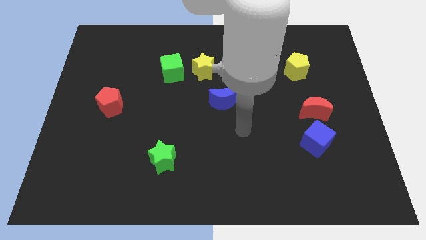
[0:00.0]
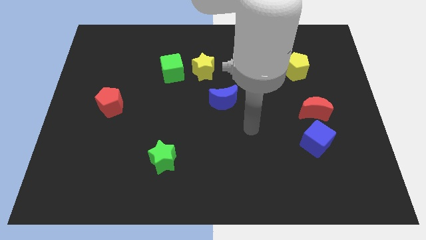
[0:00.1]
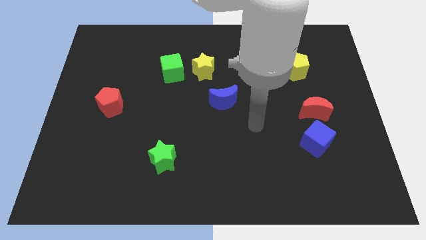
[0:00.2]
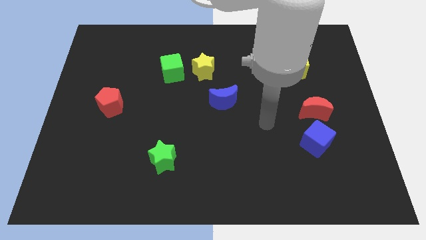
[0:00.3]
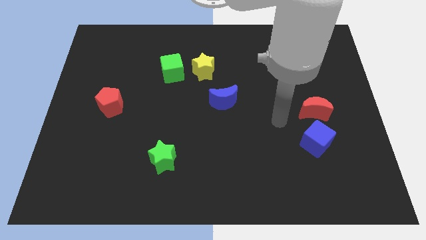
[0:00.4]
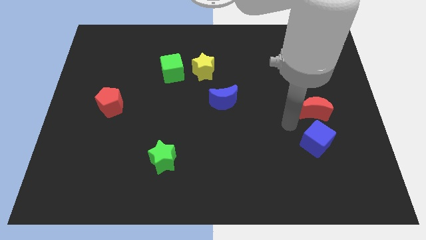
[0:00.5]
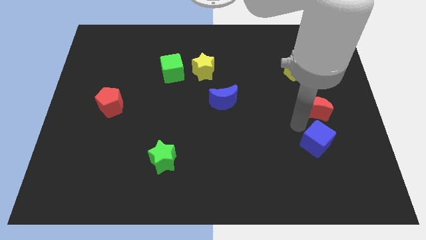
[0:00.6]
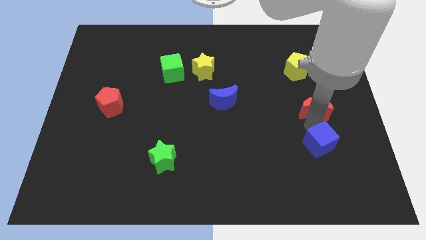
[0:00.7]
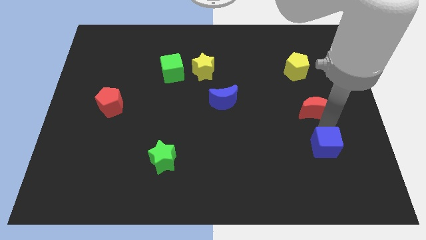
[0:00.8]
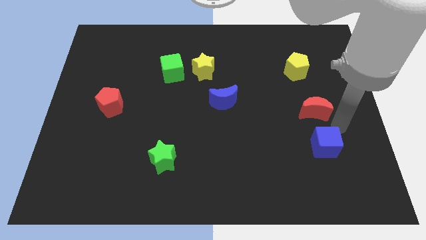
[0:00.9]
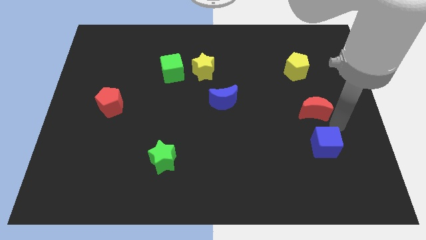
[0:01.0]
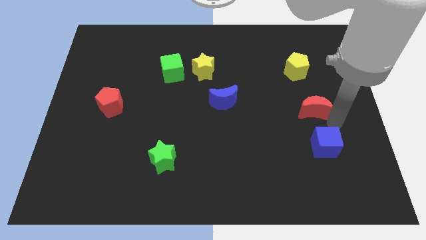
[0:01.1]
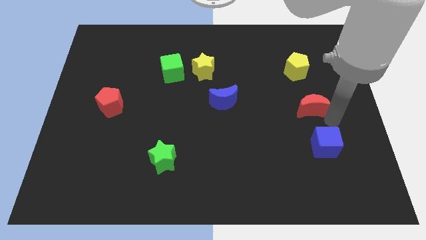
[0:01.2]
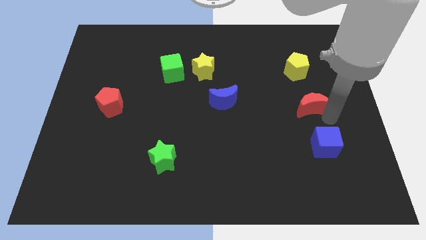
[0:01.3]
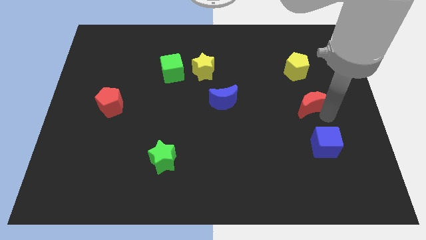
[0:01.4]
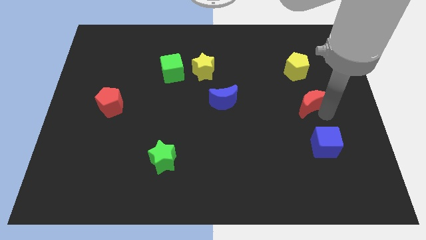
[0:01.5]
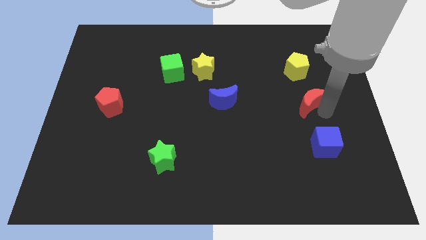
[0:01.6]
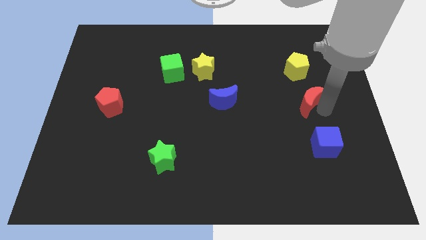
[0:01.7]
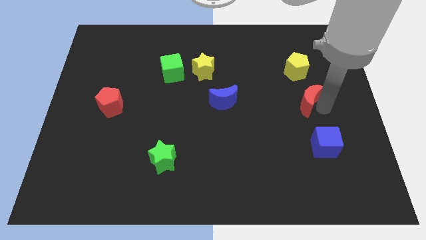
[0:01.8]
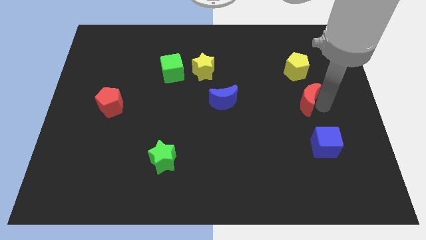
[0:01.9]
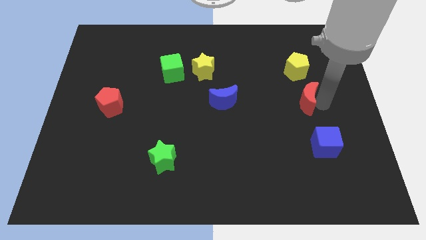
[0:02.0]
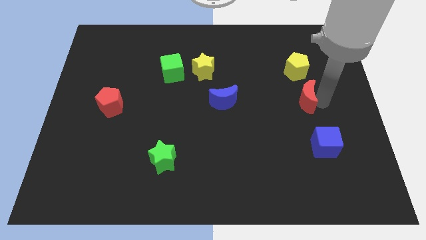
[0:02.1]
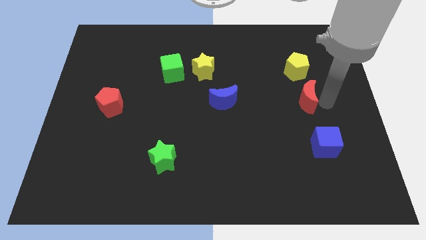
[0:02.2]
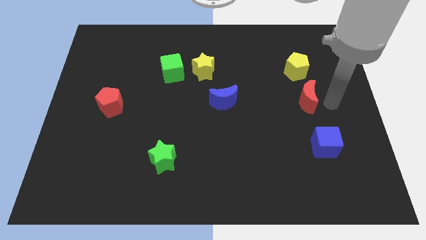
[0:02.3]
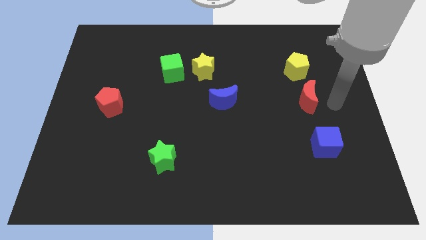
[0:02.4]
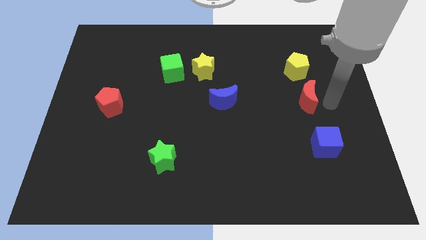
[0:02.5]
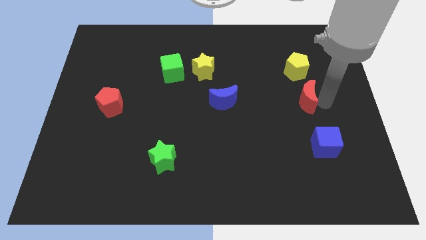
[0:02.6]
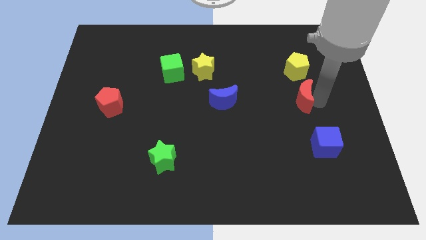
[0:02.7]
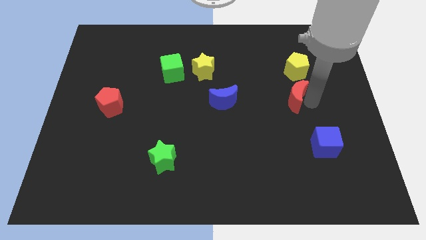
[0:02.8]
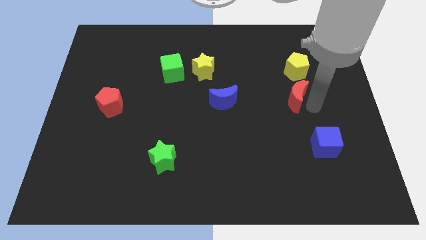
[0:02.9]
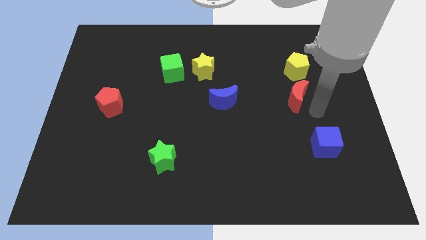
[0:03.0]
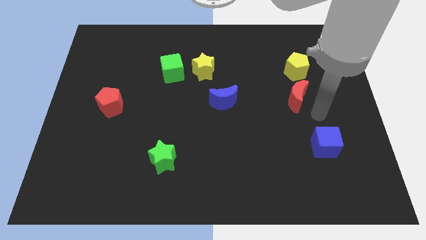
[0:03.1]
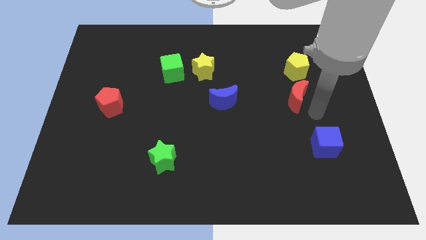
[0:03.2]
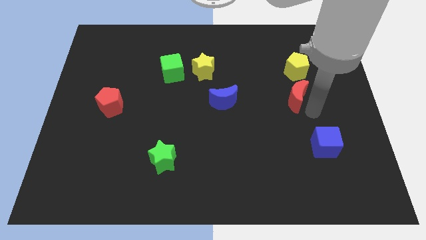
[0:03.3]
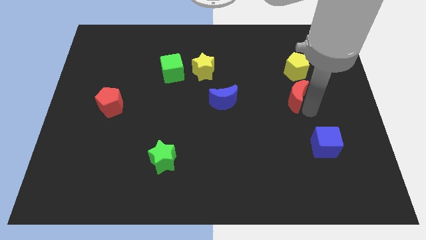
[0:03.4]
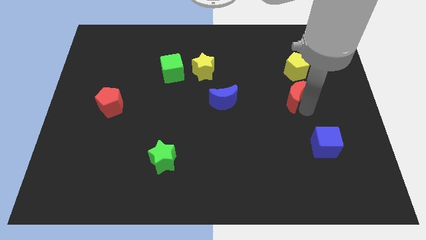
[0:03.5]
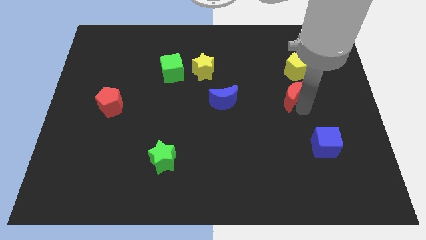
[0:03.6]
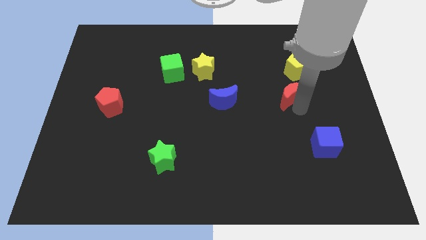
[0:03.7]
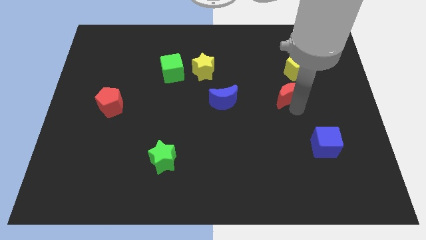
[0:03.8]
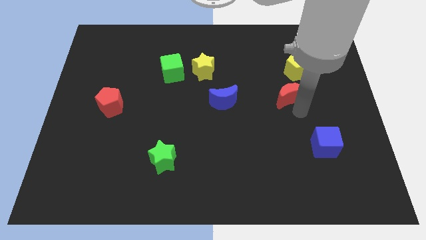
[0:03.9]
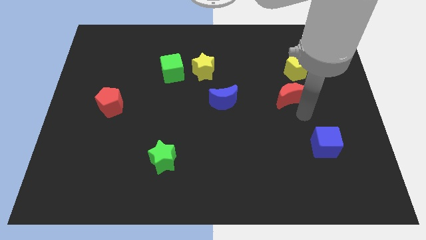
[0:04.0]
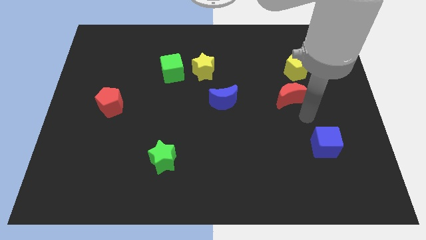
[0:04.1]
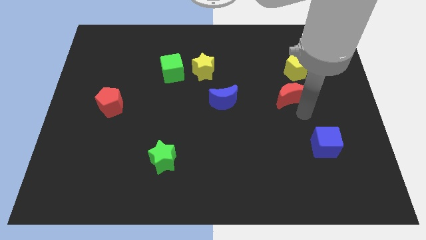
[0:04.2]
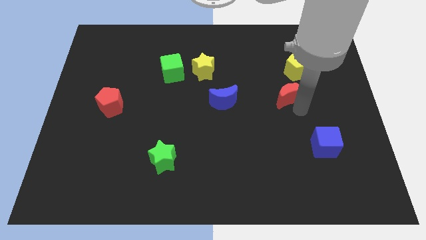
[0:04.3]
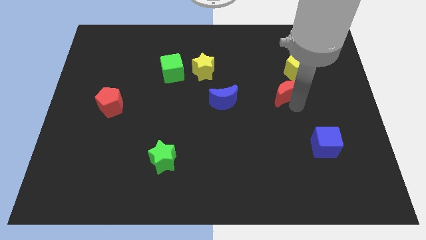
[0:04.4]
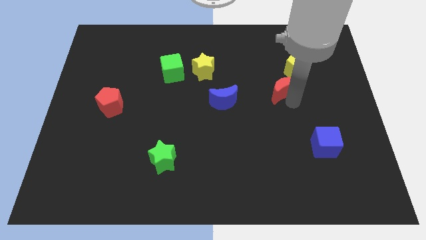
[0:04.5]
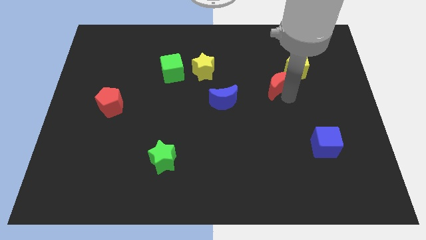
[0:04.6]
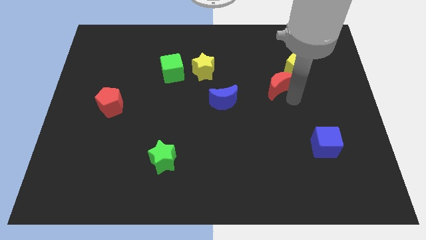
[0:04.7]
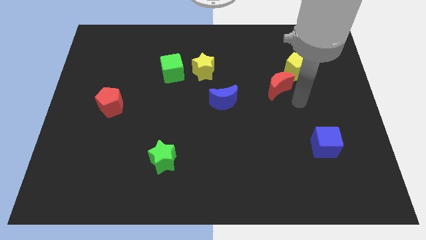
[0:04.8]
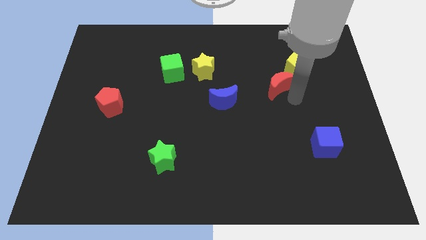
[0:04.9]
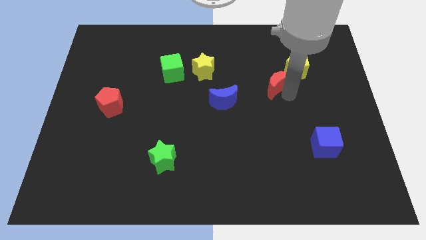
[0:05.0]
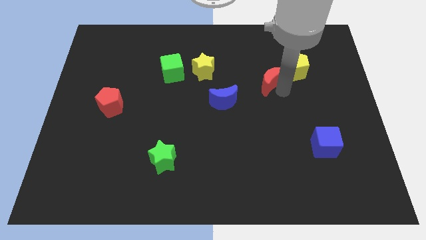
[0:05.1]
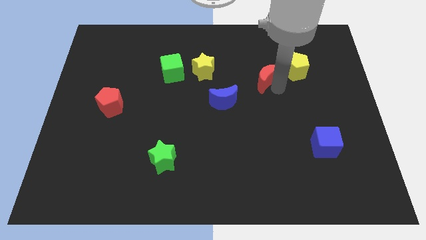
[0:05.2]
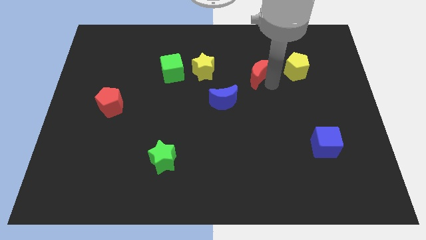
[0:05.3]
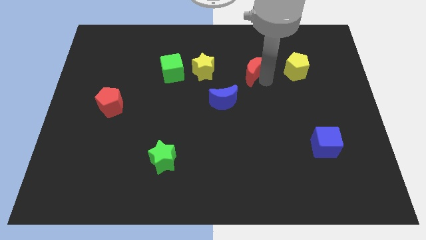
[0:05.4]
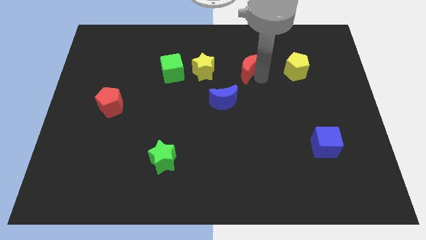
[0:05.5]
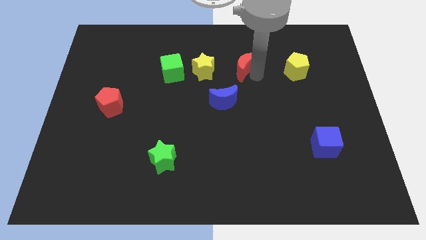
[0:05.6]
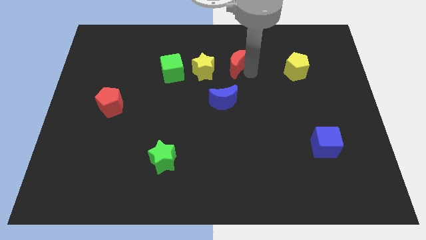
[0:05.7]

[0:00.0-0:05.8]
push the red moon to the top right of the yellow star

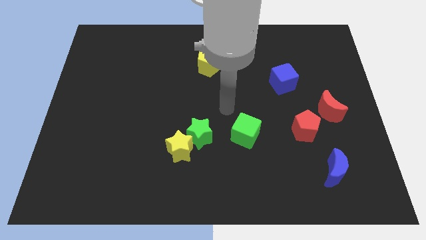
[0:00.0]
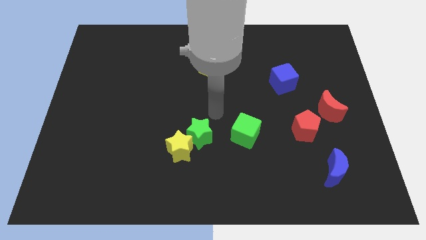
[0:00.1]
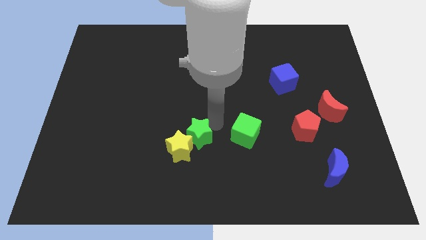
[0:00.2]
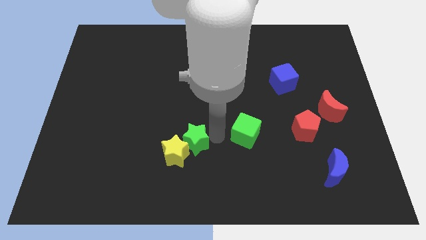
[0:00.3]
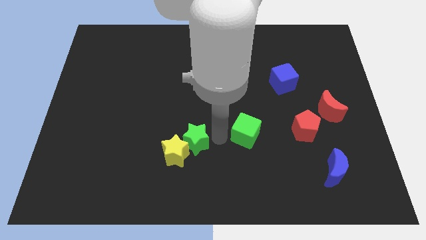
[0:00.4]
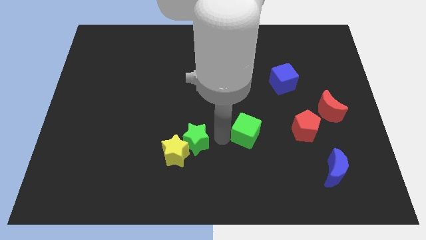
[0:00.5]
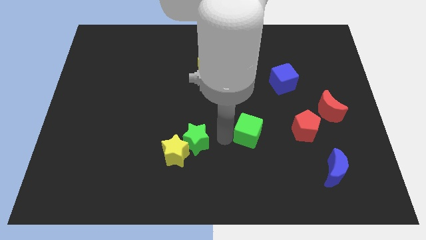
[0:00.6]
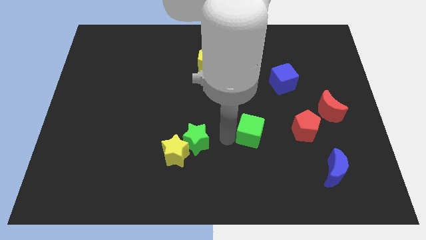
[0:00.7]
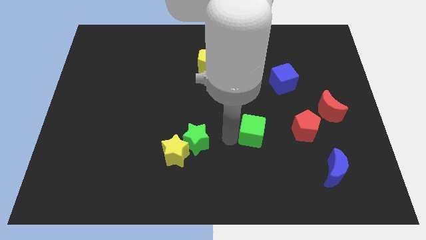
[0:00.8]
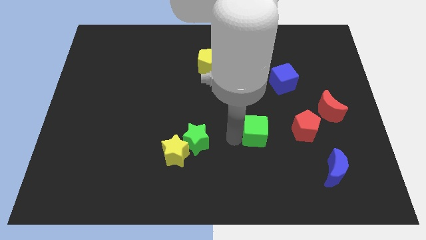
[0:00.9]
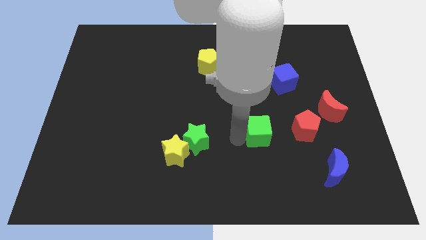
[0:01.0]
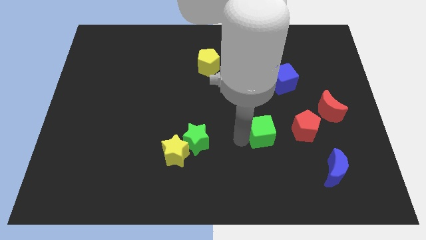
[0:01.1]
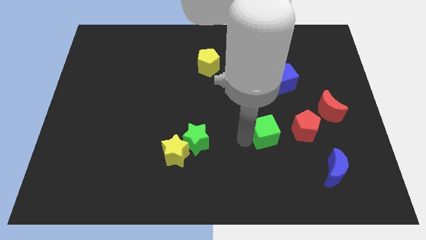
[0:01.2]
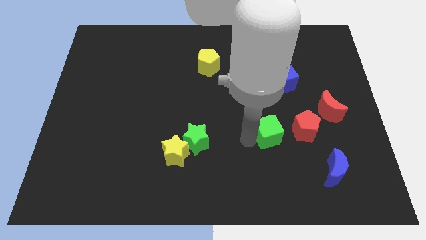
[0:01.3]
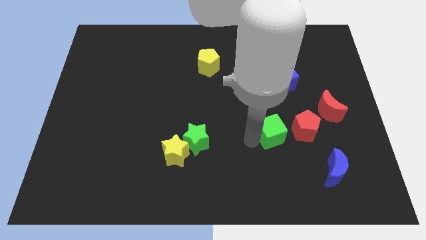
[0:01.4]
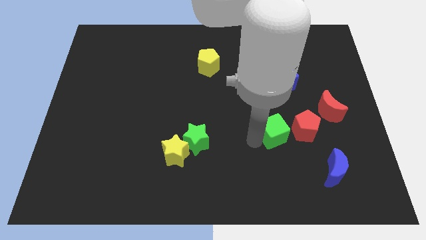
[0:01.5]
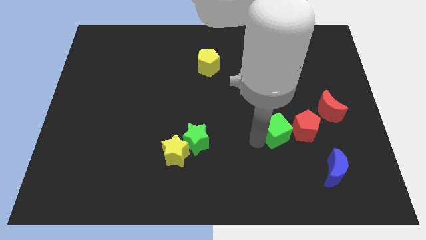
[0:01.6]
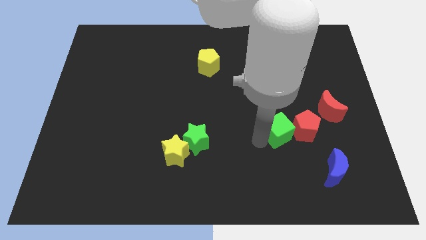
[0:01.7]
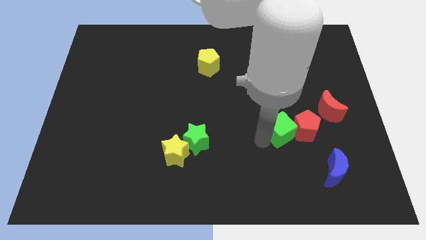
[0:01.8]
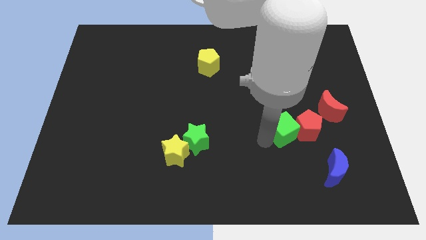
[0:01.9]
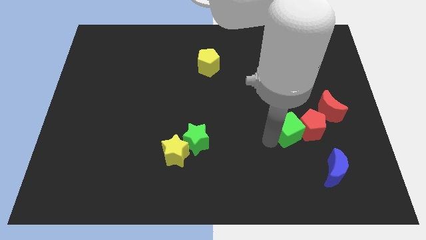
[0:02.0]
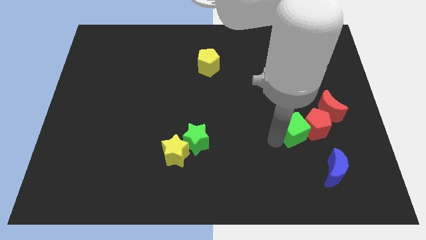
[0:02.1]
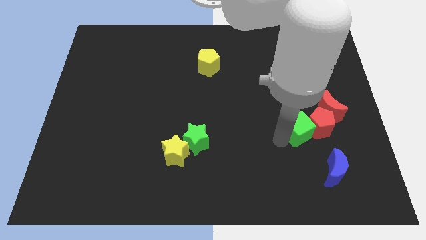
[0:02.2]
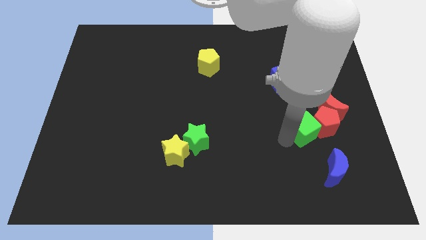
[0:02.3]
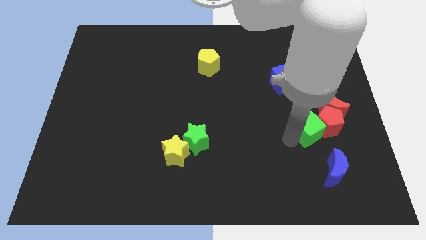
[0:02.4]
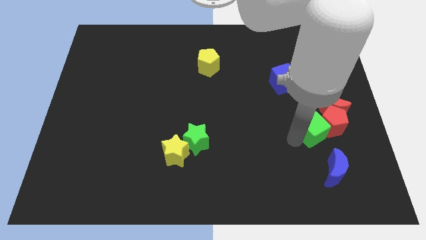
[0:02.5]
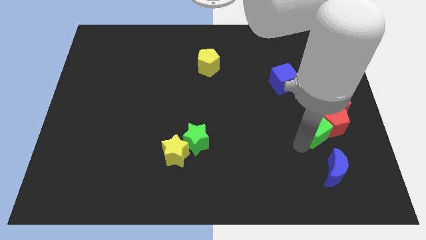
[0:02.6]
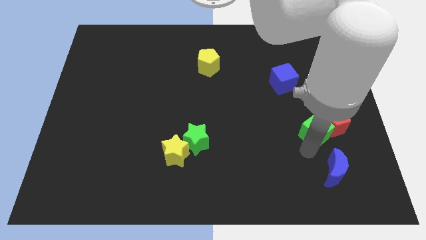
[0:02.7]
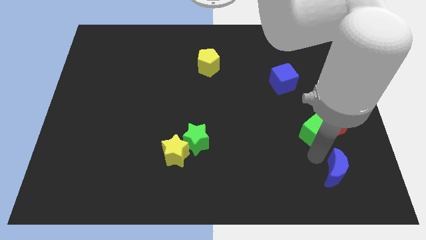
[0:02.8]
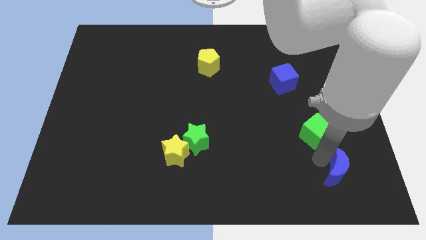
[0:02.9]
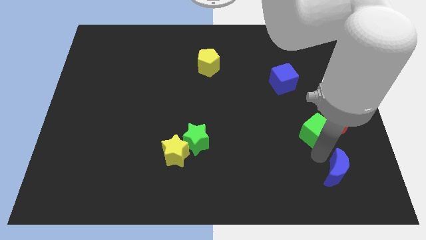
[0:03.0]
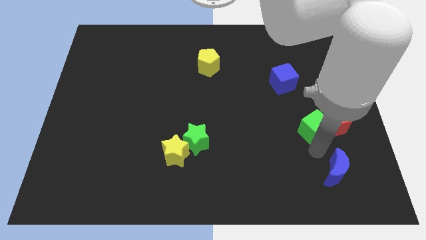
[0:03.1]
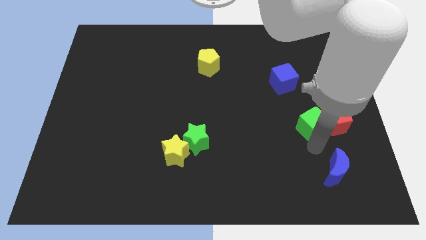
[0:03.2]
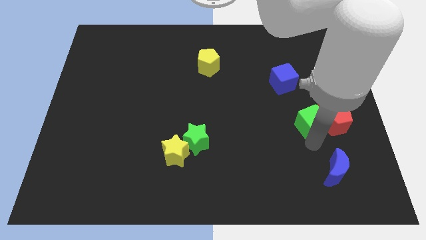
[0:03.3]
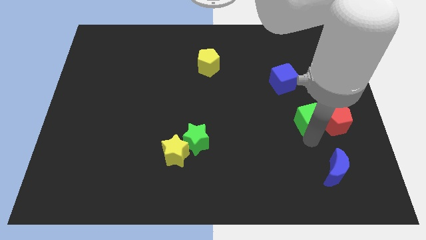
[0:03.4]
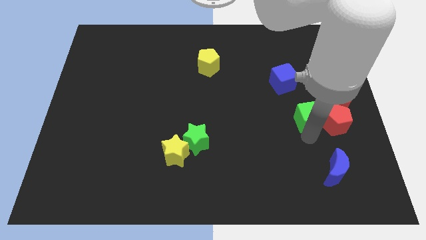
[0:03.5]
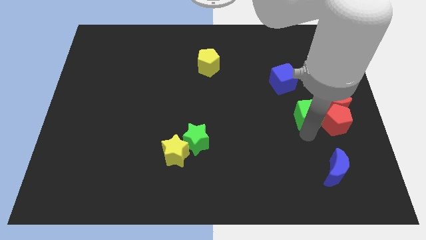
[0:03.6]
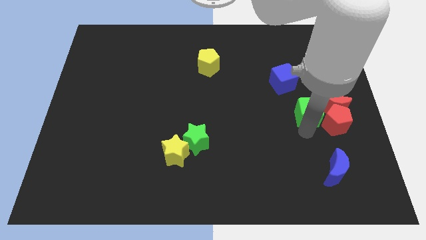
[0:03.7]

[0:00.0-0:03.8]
move the green cube to the bottom right side of the blue cube
